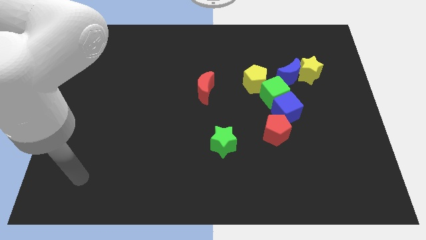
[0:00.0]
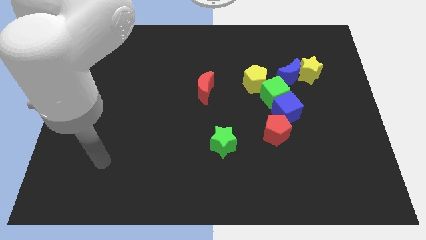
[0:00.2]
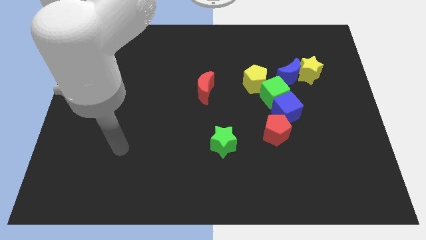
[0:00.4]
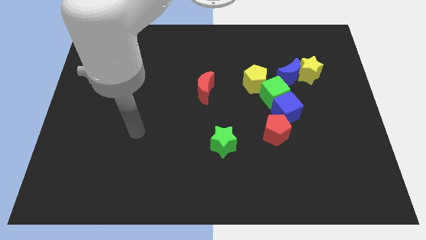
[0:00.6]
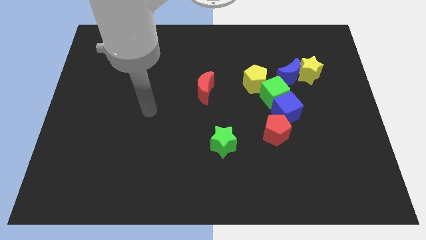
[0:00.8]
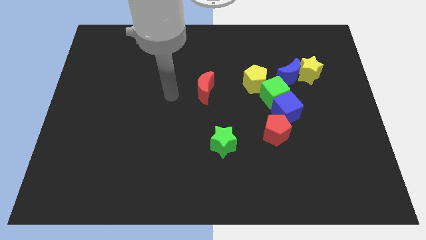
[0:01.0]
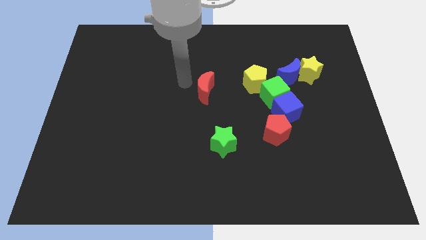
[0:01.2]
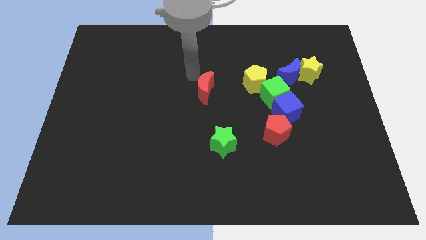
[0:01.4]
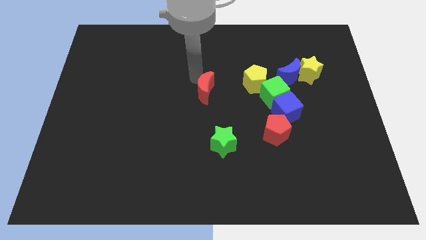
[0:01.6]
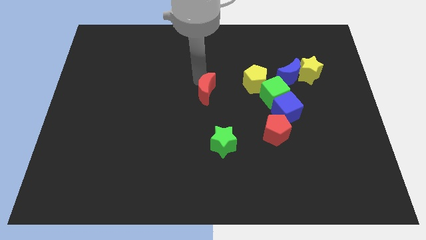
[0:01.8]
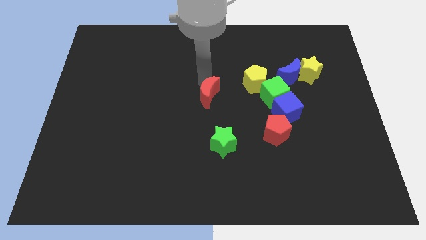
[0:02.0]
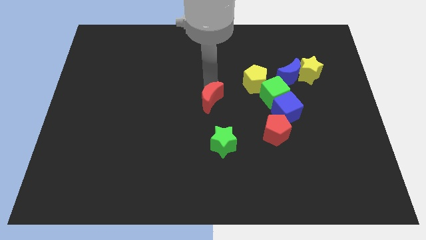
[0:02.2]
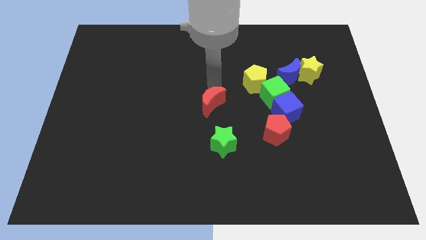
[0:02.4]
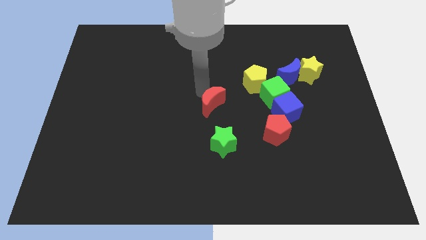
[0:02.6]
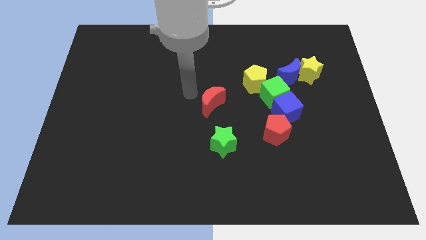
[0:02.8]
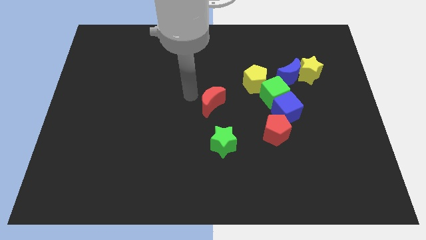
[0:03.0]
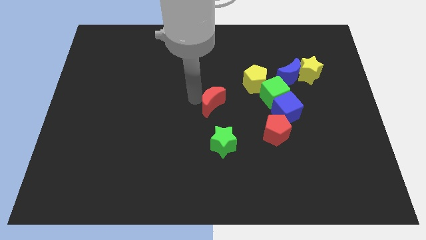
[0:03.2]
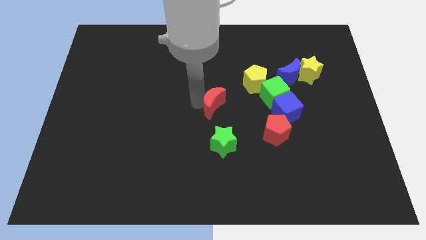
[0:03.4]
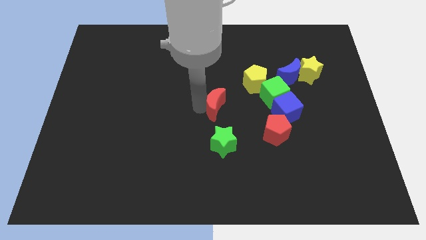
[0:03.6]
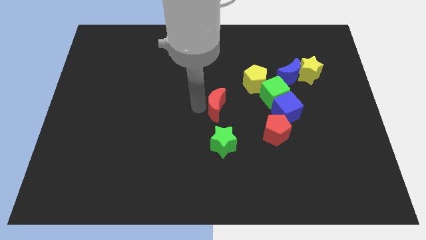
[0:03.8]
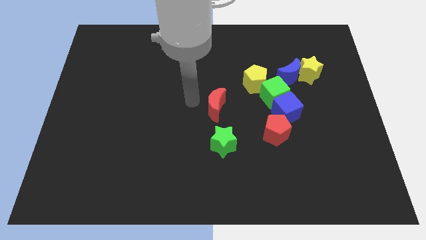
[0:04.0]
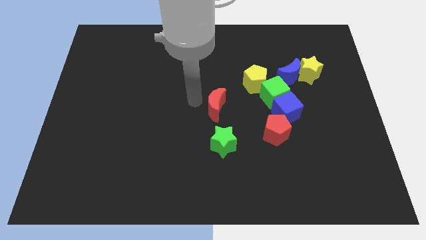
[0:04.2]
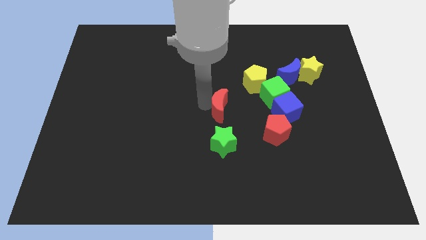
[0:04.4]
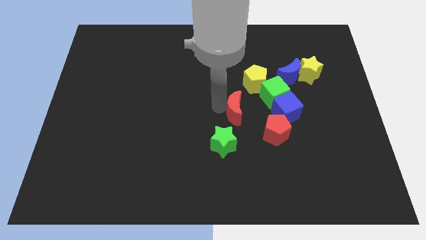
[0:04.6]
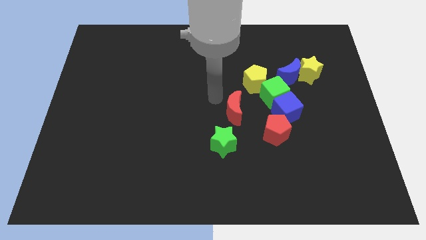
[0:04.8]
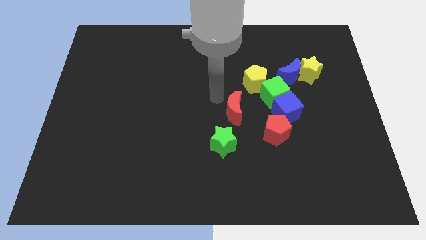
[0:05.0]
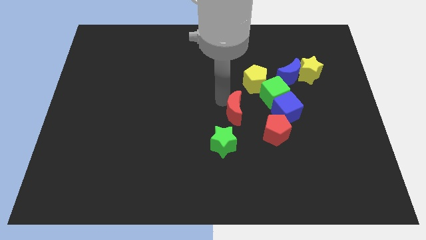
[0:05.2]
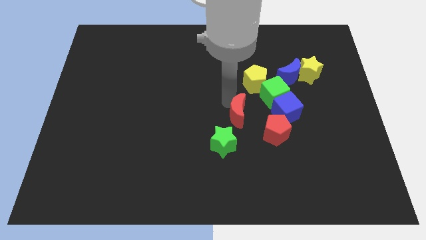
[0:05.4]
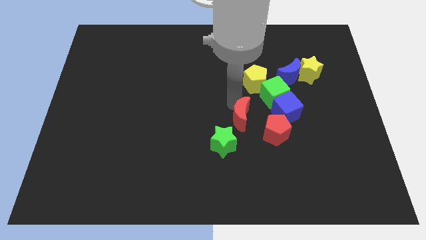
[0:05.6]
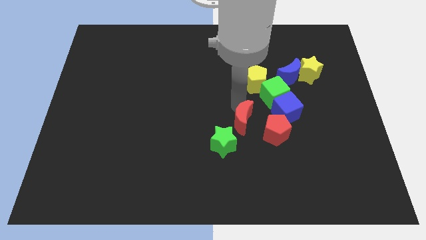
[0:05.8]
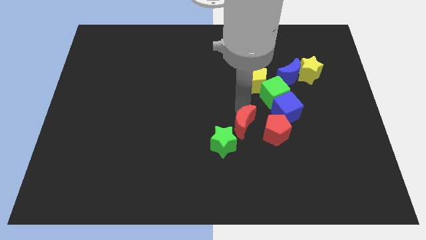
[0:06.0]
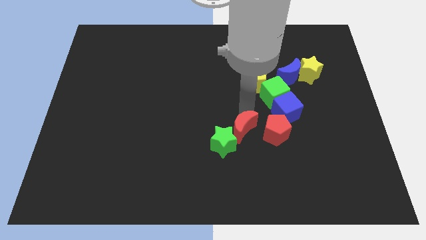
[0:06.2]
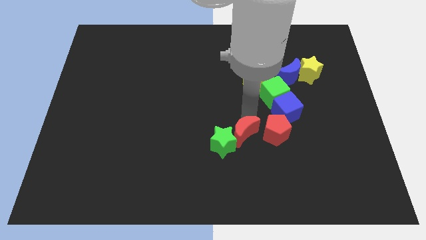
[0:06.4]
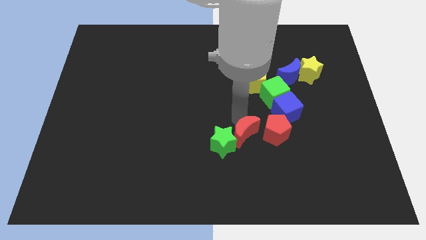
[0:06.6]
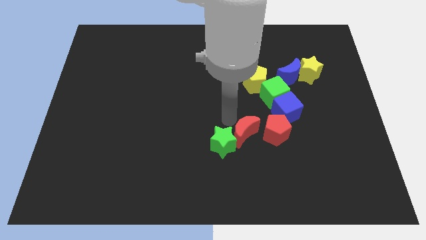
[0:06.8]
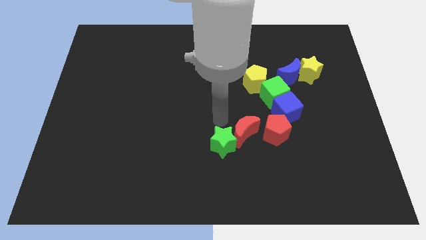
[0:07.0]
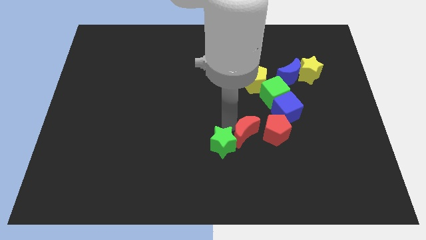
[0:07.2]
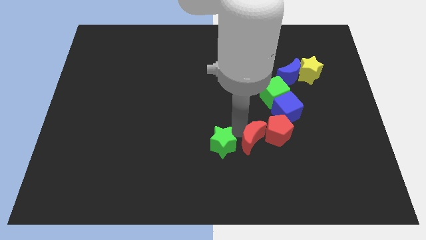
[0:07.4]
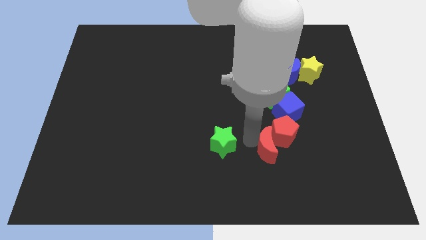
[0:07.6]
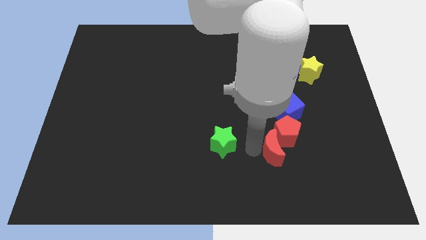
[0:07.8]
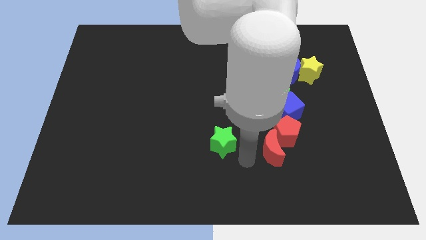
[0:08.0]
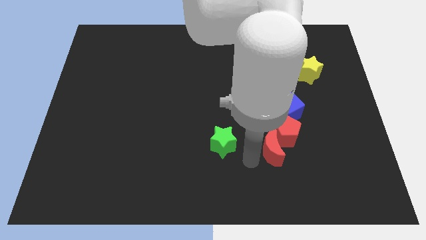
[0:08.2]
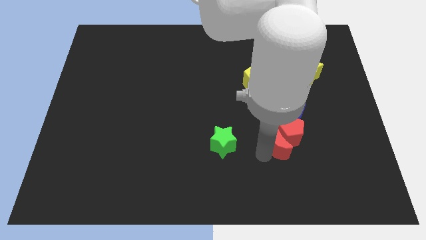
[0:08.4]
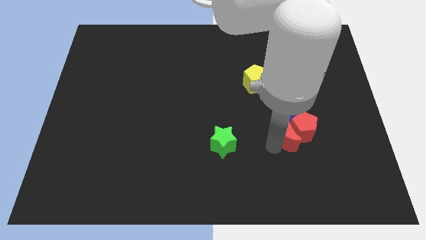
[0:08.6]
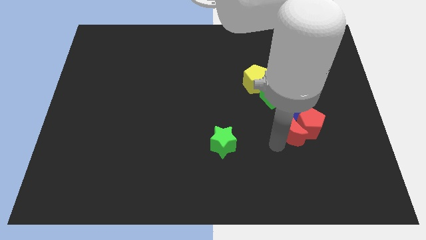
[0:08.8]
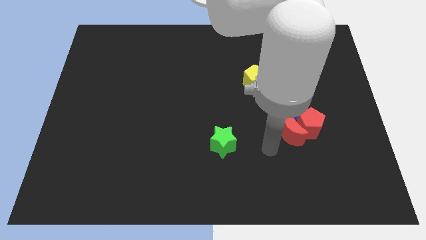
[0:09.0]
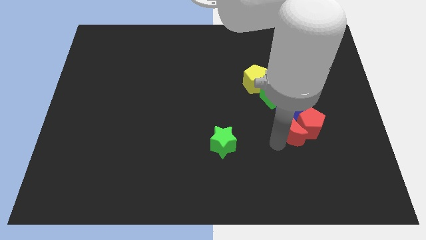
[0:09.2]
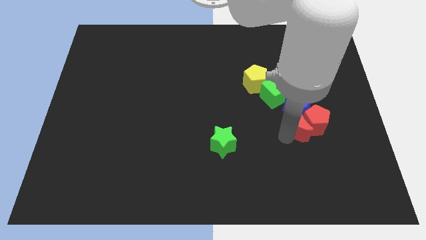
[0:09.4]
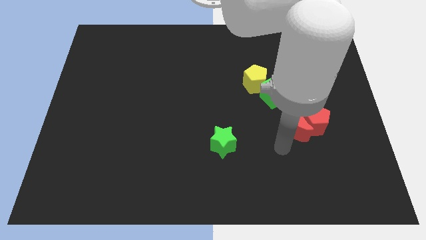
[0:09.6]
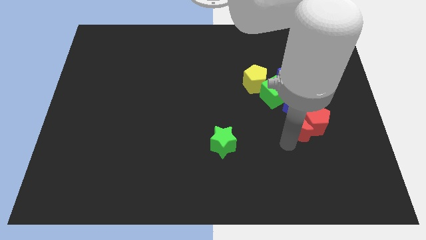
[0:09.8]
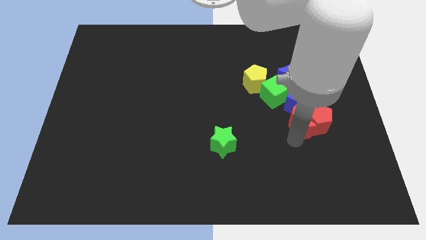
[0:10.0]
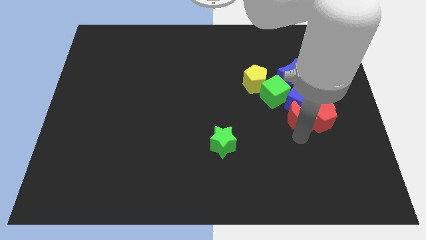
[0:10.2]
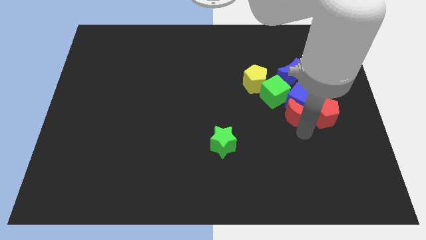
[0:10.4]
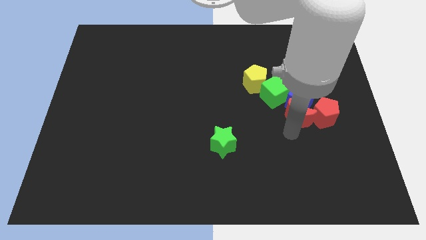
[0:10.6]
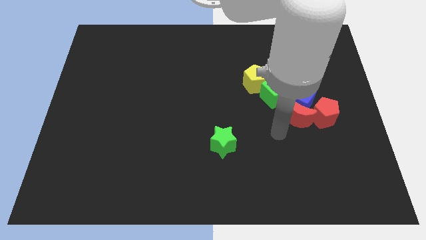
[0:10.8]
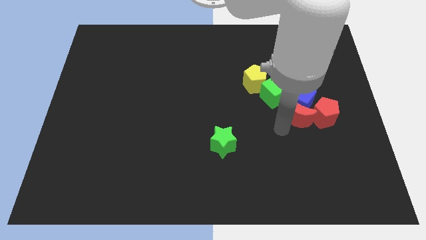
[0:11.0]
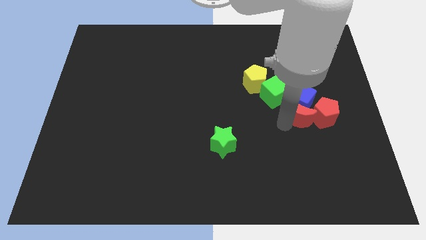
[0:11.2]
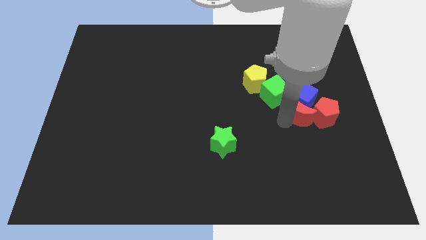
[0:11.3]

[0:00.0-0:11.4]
move the red moon below the yellow star

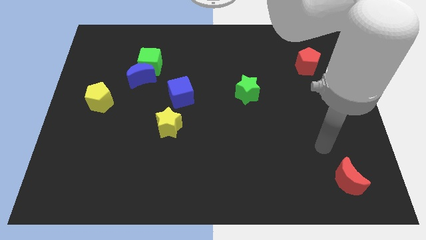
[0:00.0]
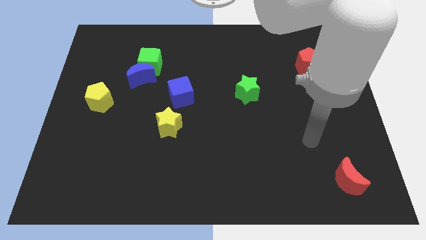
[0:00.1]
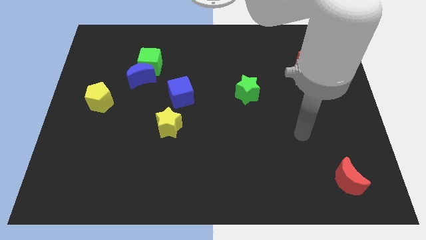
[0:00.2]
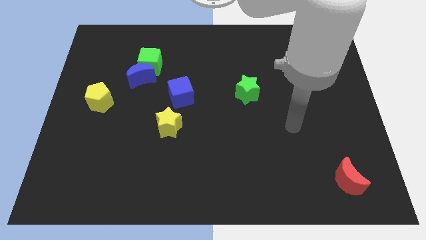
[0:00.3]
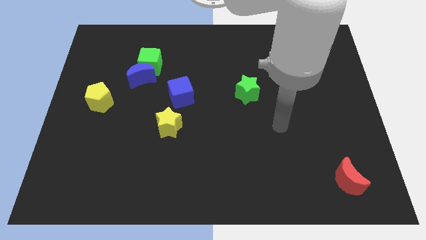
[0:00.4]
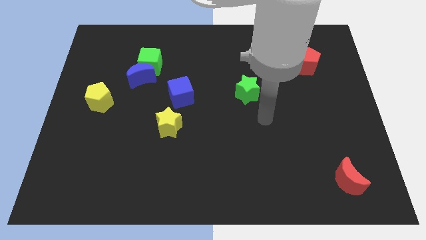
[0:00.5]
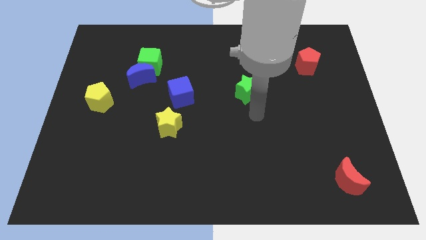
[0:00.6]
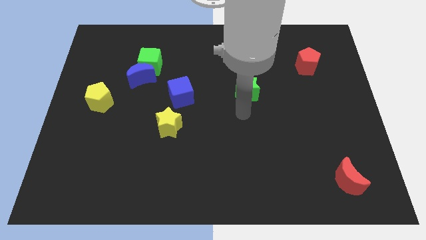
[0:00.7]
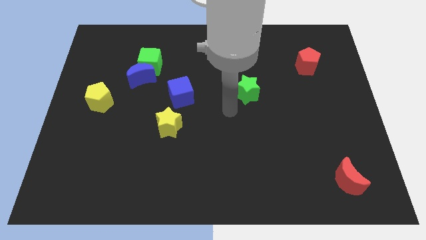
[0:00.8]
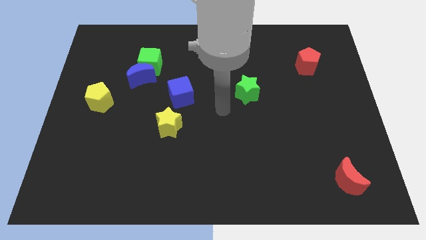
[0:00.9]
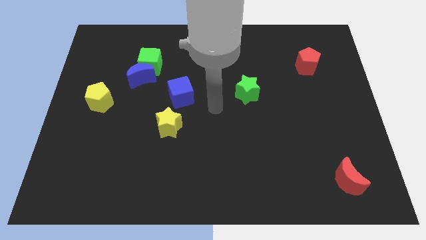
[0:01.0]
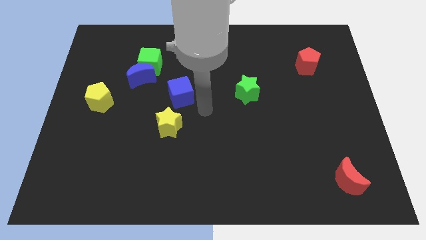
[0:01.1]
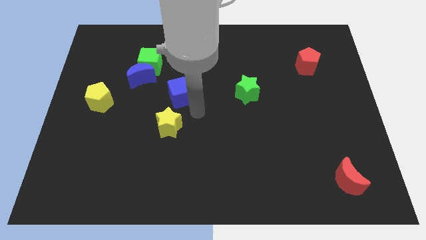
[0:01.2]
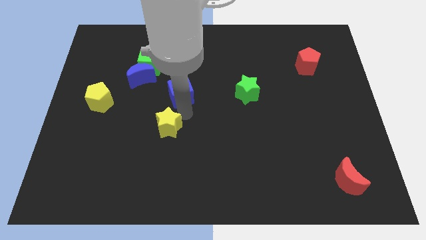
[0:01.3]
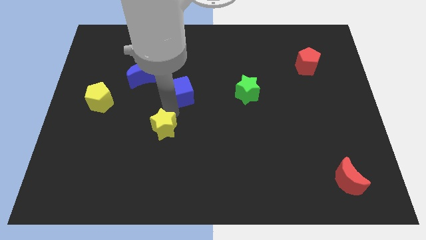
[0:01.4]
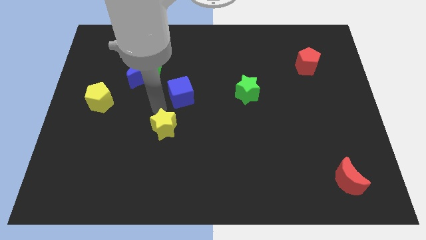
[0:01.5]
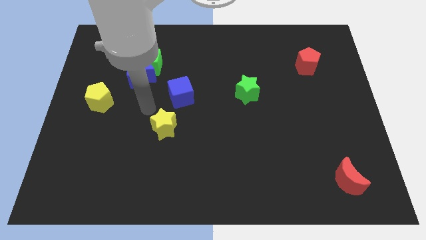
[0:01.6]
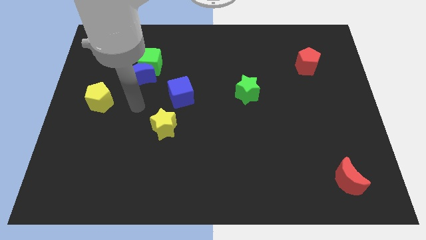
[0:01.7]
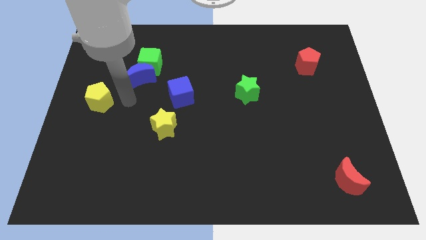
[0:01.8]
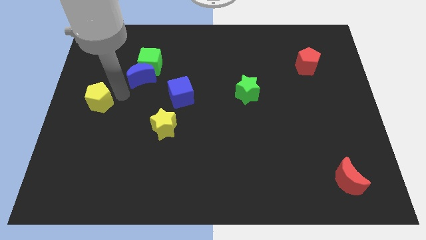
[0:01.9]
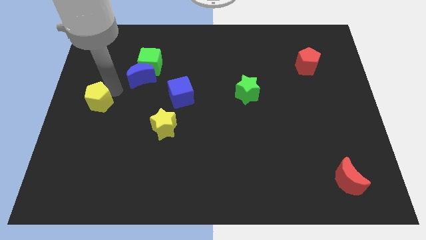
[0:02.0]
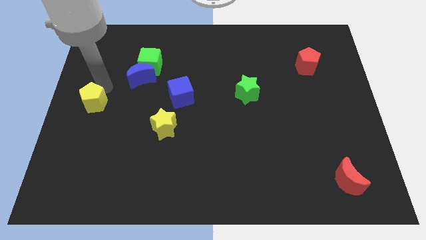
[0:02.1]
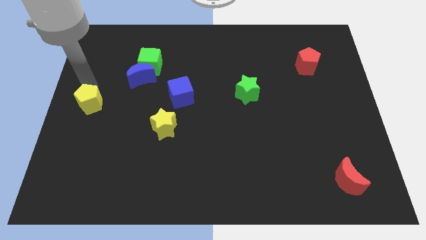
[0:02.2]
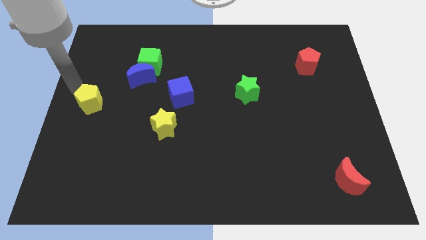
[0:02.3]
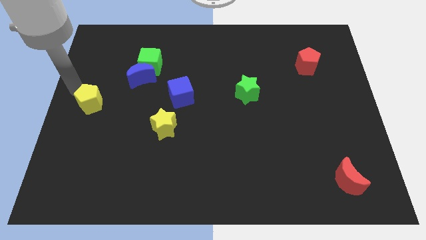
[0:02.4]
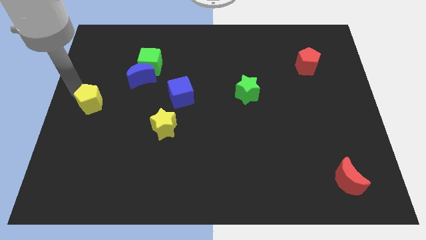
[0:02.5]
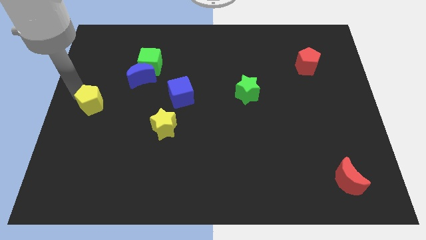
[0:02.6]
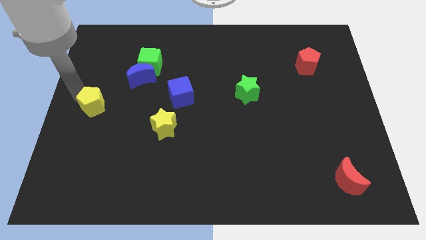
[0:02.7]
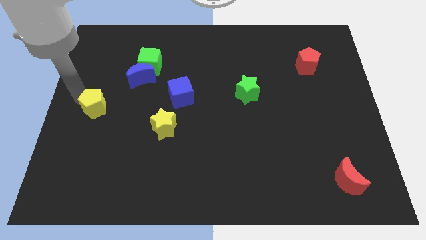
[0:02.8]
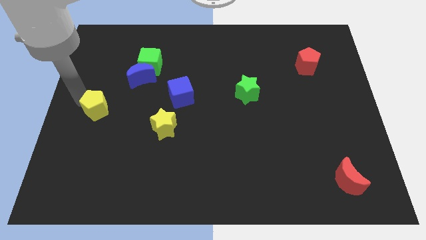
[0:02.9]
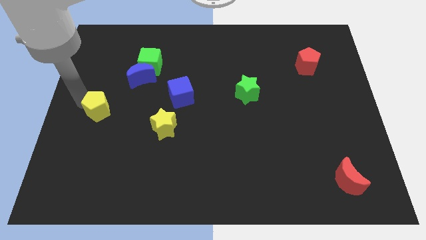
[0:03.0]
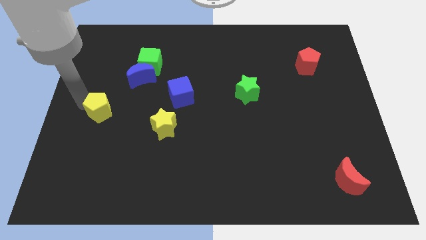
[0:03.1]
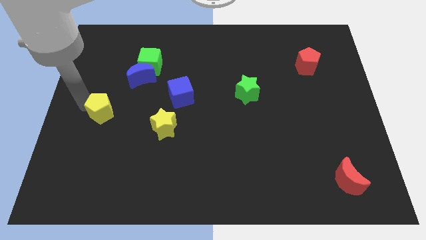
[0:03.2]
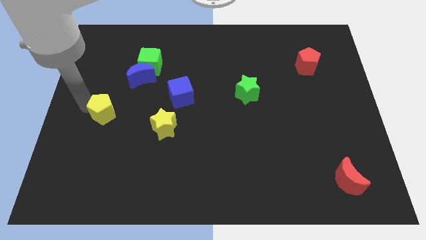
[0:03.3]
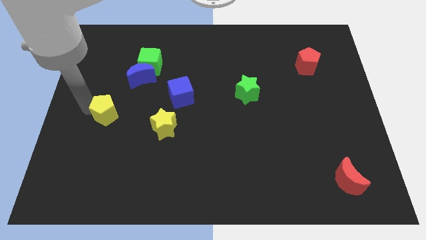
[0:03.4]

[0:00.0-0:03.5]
move the yellow pentagon left of the yellow star
